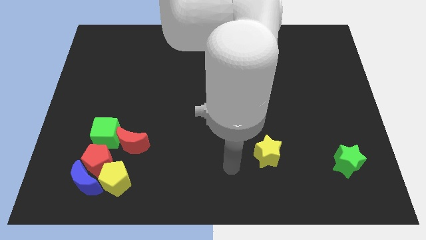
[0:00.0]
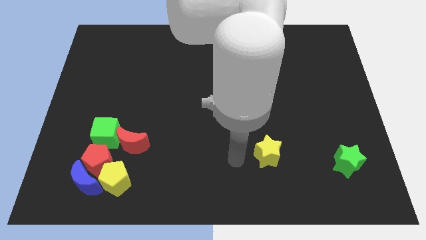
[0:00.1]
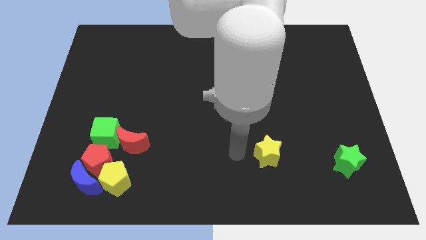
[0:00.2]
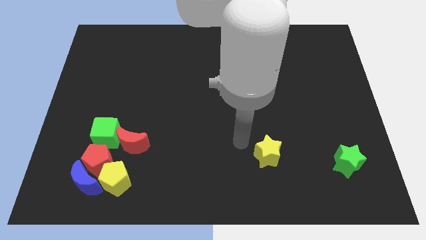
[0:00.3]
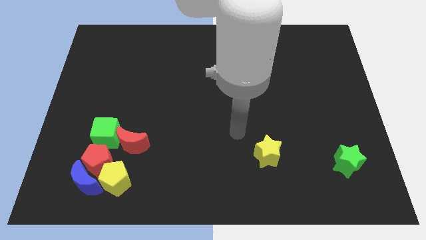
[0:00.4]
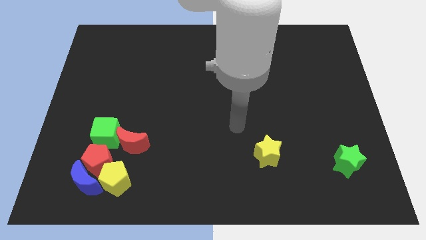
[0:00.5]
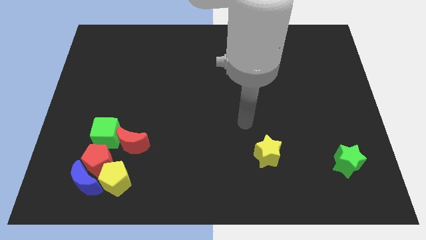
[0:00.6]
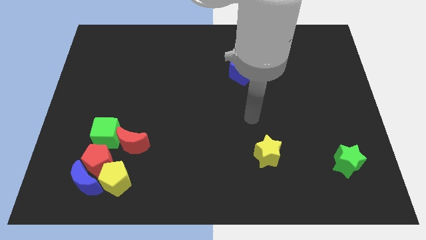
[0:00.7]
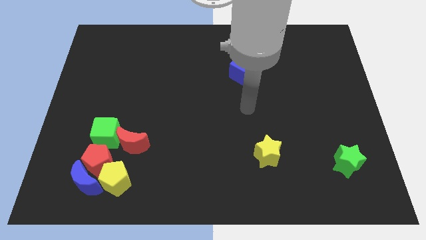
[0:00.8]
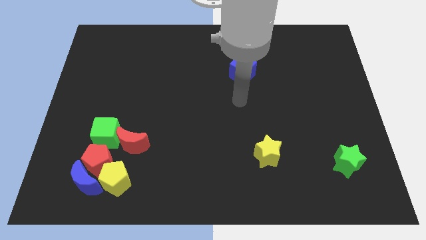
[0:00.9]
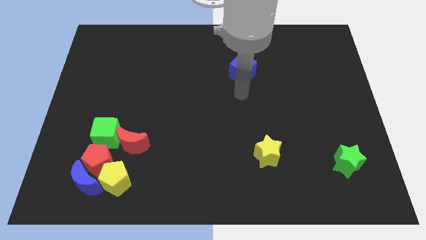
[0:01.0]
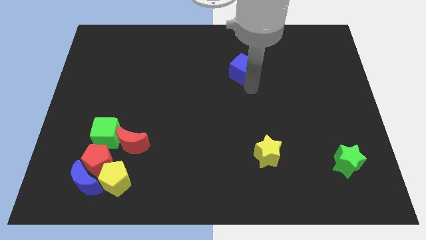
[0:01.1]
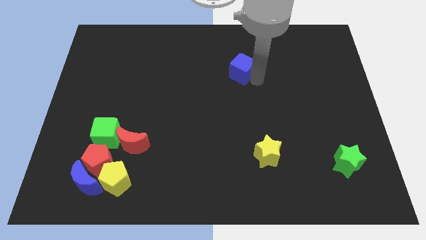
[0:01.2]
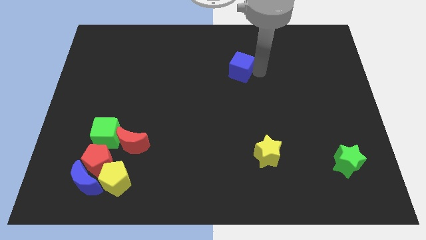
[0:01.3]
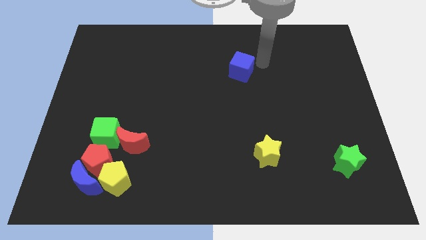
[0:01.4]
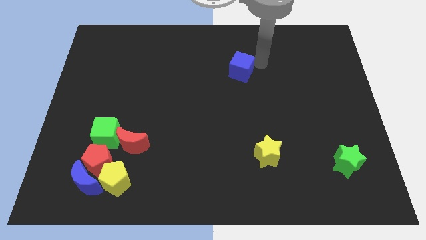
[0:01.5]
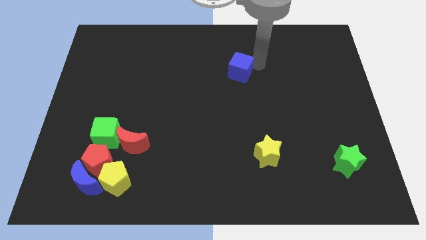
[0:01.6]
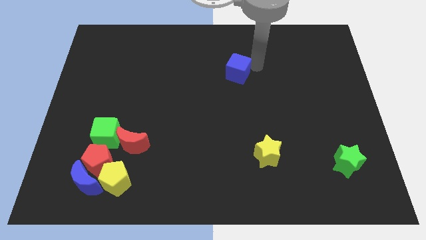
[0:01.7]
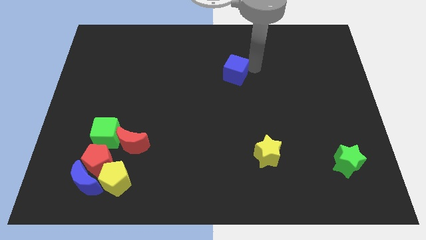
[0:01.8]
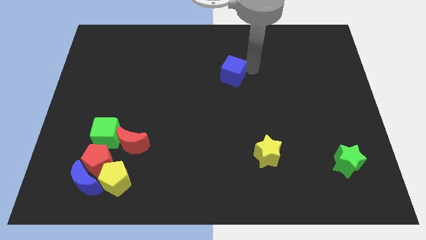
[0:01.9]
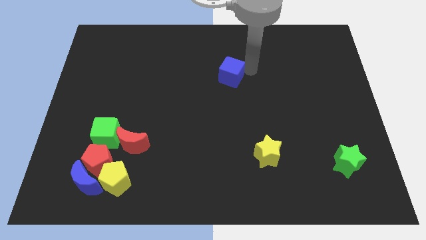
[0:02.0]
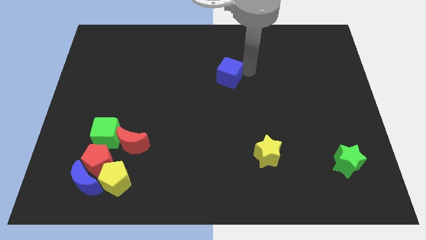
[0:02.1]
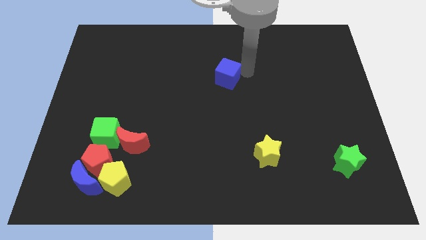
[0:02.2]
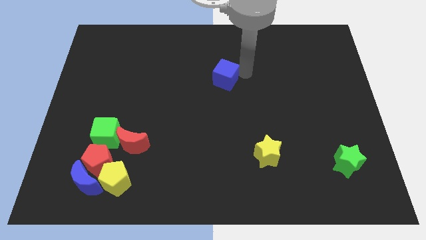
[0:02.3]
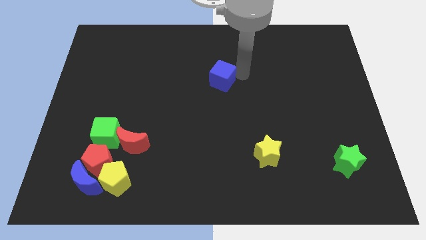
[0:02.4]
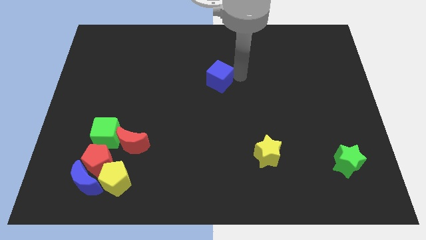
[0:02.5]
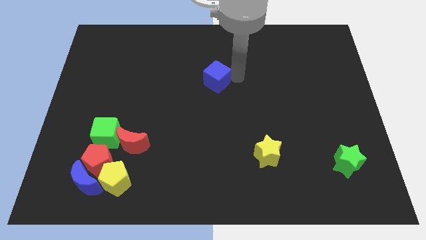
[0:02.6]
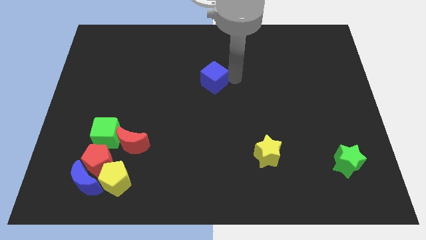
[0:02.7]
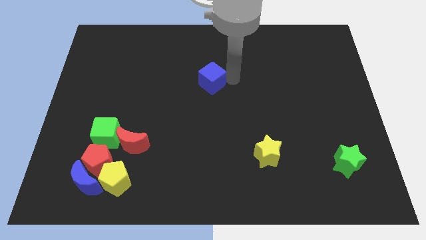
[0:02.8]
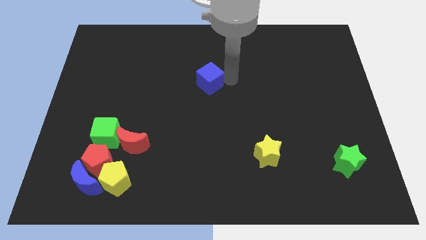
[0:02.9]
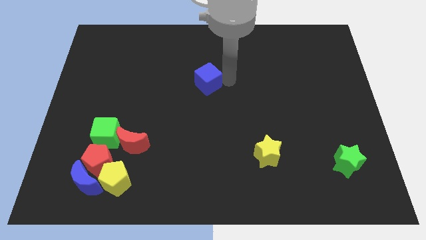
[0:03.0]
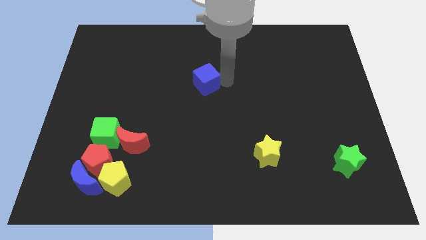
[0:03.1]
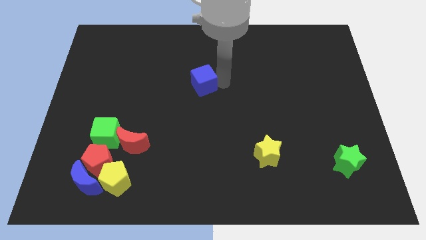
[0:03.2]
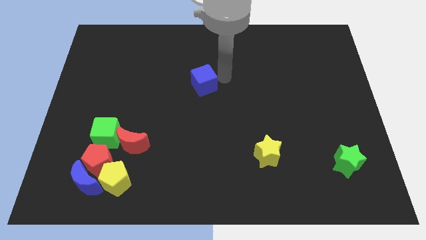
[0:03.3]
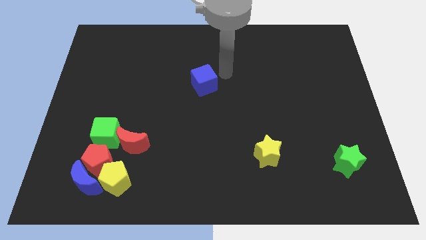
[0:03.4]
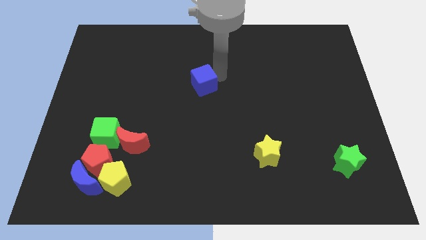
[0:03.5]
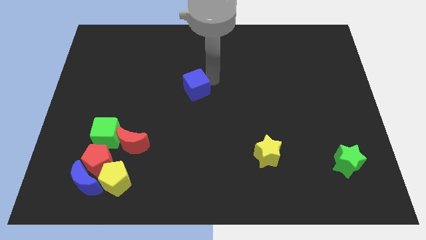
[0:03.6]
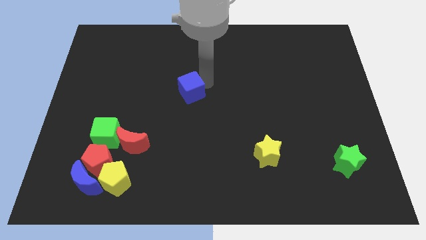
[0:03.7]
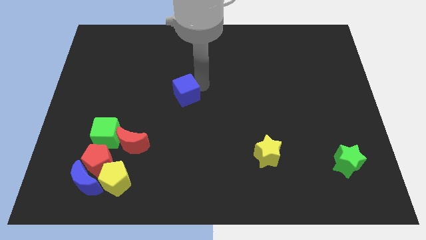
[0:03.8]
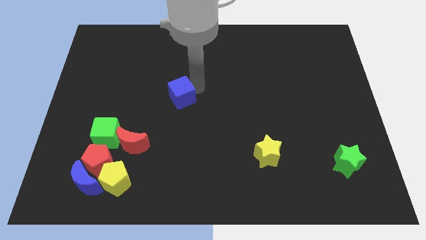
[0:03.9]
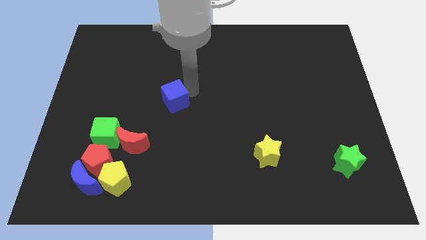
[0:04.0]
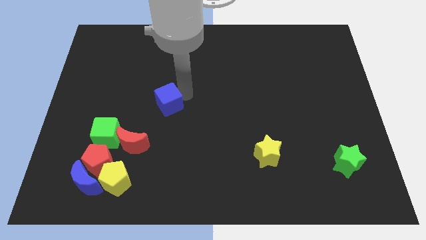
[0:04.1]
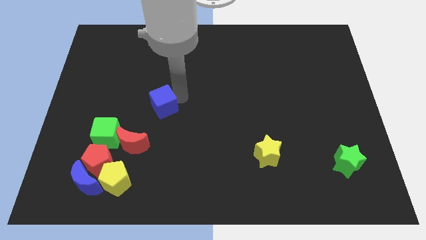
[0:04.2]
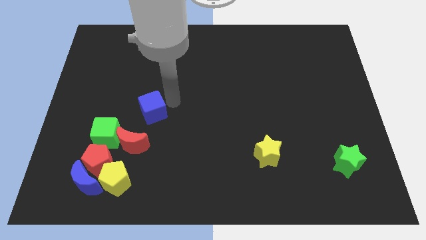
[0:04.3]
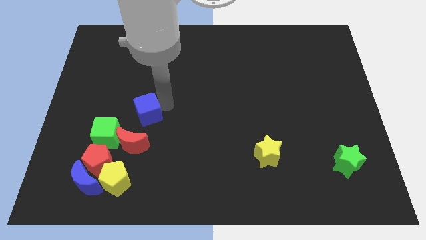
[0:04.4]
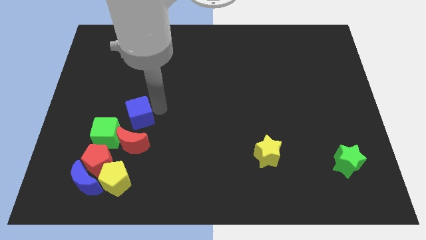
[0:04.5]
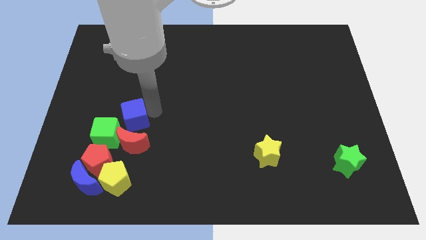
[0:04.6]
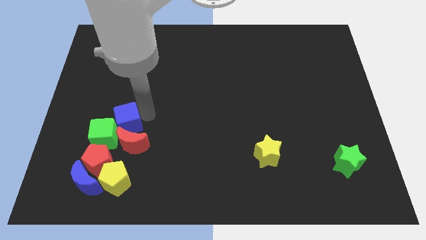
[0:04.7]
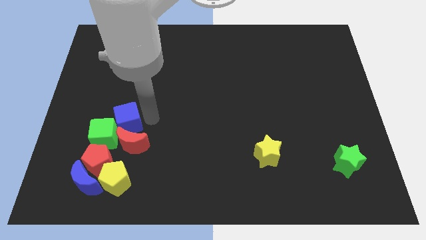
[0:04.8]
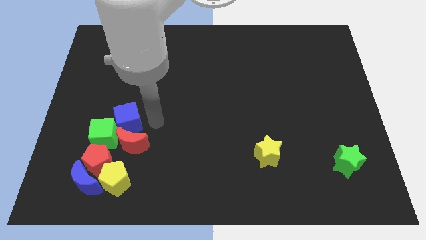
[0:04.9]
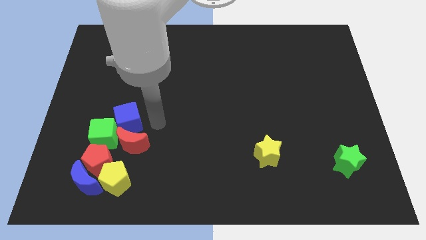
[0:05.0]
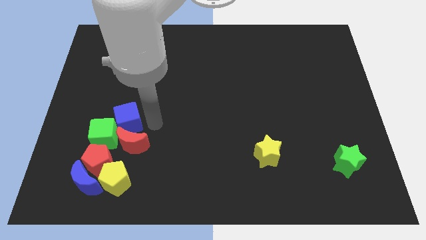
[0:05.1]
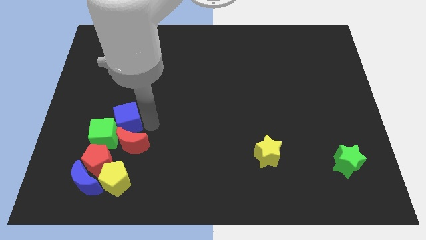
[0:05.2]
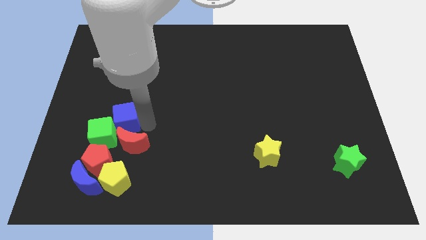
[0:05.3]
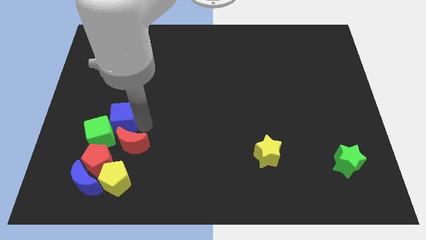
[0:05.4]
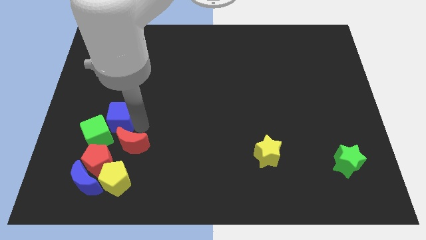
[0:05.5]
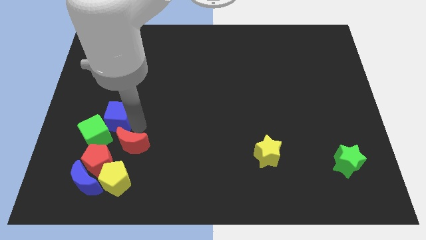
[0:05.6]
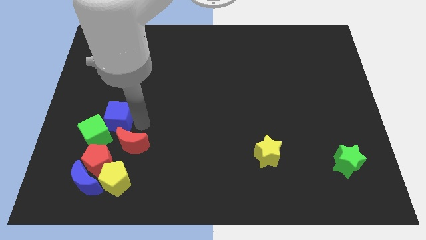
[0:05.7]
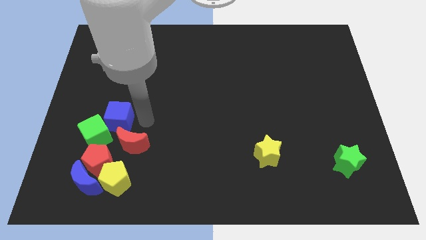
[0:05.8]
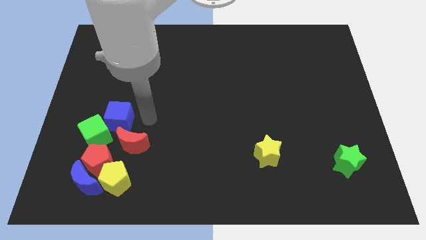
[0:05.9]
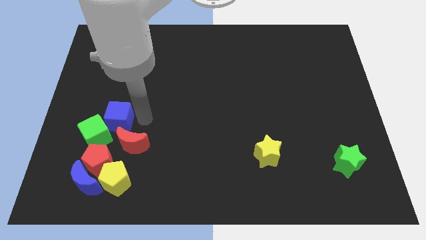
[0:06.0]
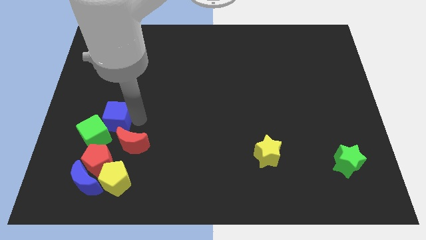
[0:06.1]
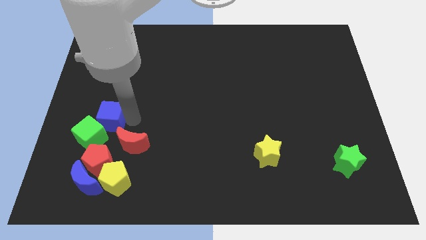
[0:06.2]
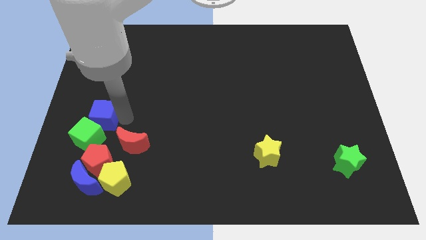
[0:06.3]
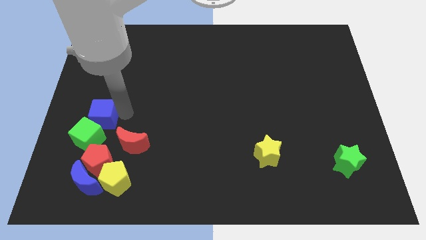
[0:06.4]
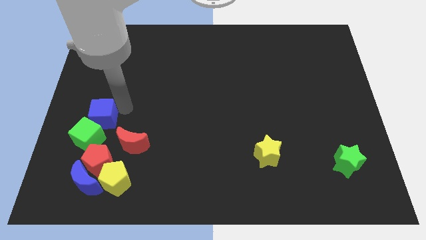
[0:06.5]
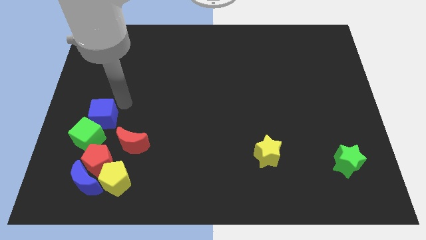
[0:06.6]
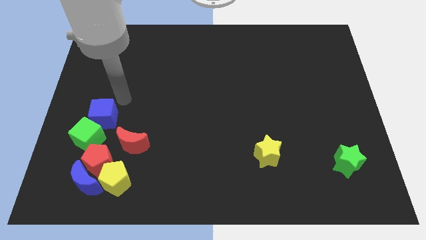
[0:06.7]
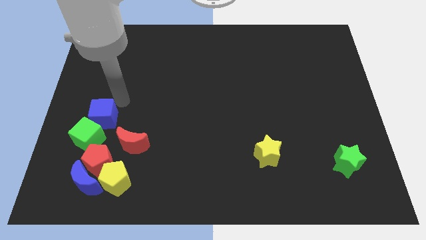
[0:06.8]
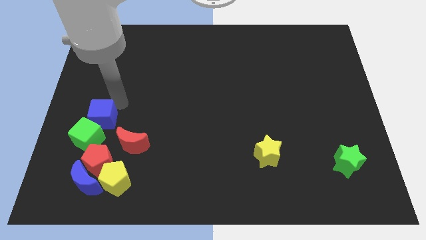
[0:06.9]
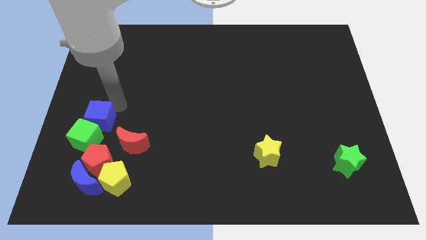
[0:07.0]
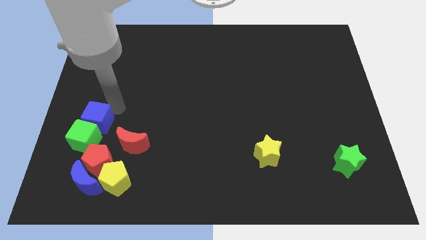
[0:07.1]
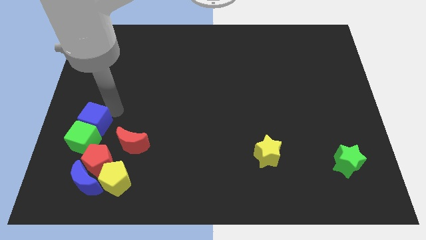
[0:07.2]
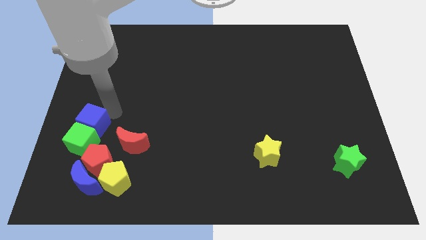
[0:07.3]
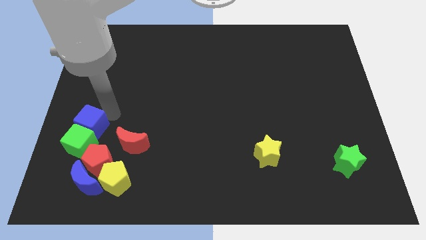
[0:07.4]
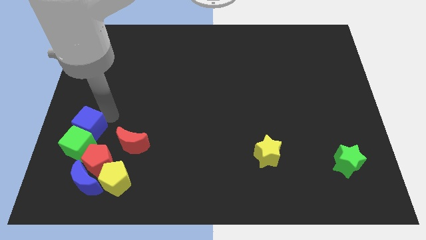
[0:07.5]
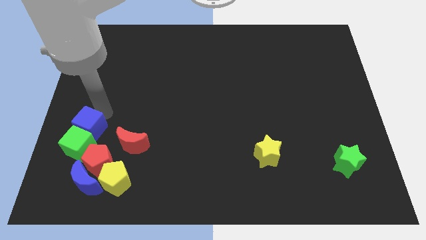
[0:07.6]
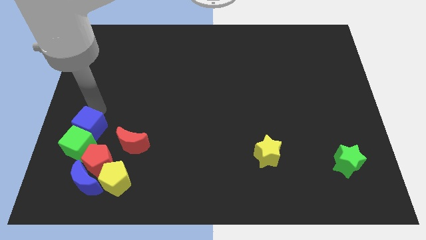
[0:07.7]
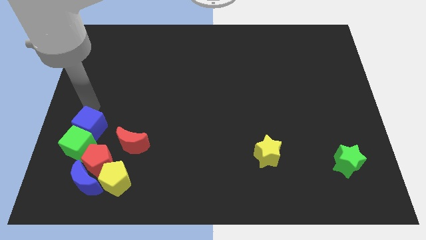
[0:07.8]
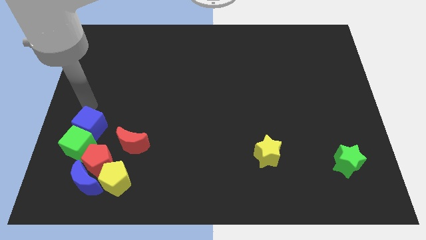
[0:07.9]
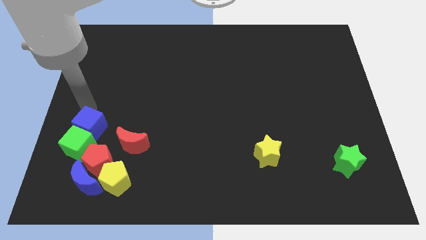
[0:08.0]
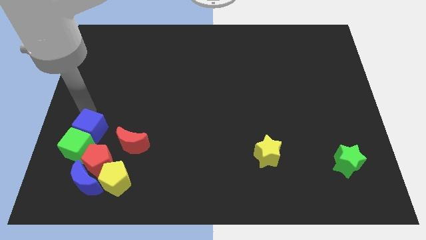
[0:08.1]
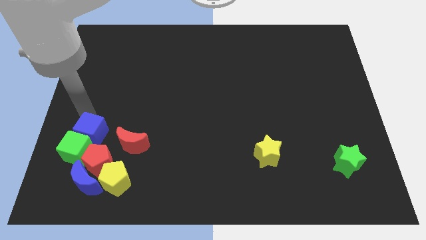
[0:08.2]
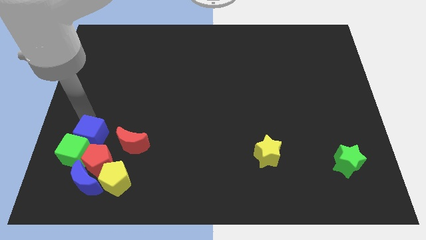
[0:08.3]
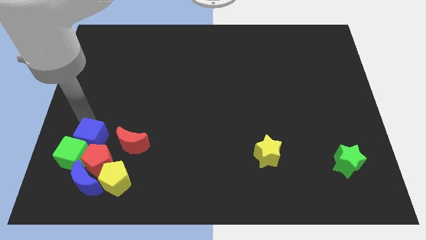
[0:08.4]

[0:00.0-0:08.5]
put the blue cube to the top left side of the yellow pentagon
